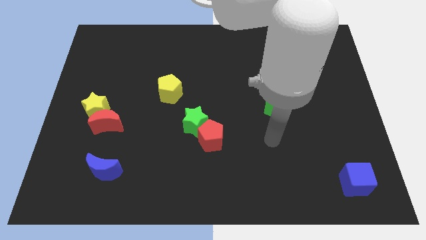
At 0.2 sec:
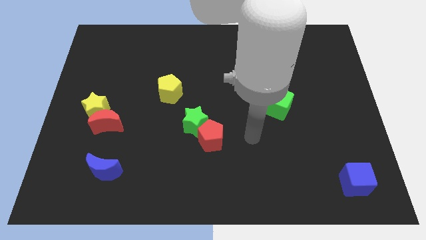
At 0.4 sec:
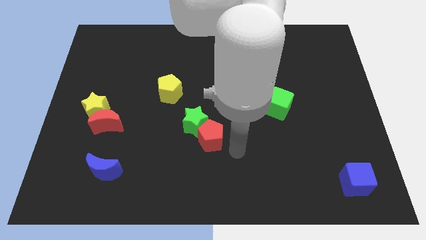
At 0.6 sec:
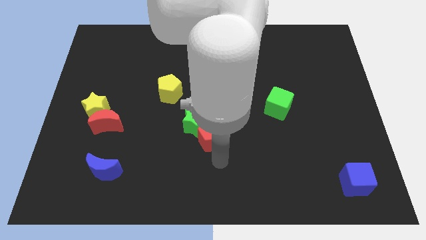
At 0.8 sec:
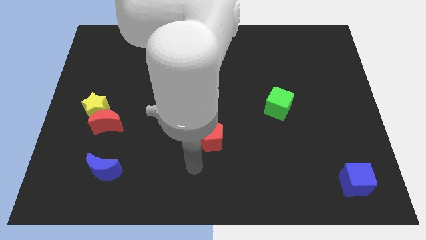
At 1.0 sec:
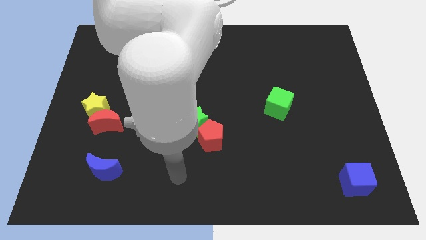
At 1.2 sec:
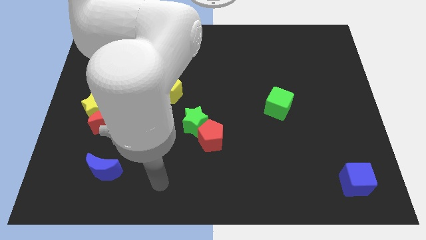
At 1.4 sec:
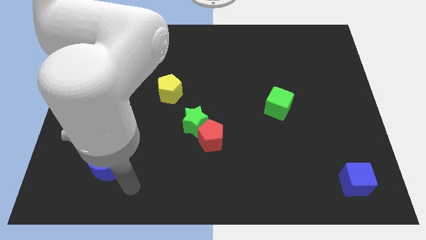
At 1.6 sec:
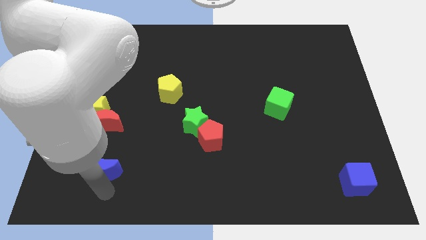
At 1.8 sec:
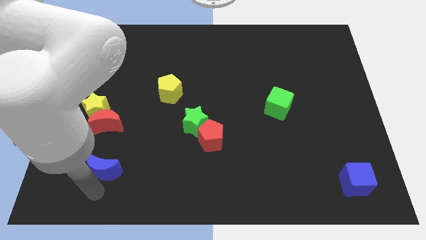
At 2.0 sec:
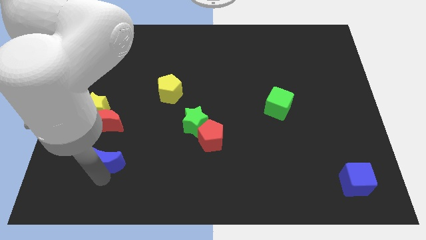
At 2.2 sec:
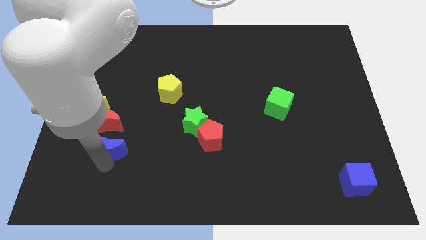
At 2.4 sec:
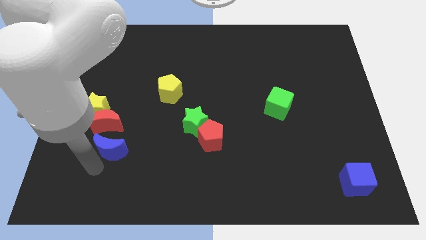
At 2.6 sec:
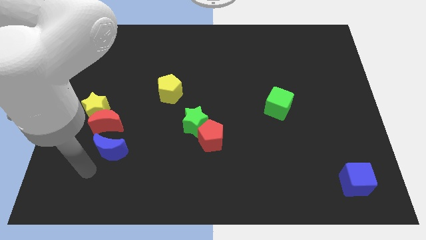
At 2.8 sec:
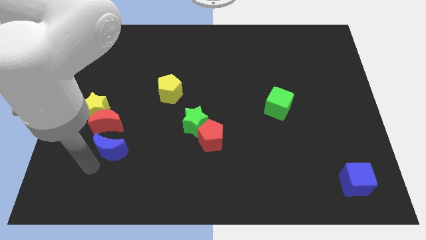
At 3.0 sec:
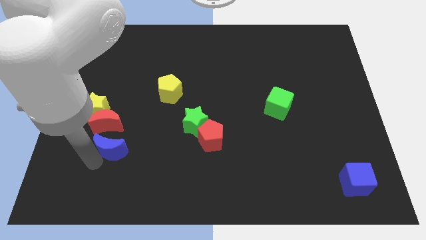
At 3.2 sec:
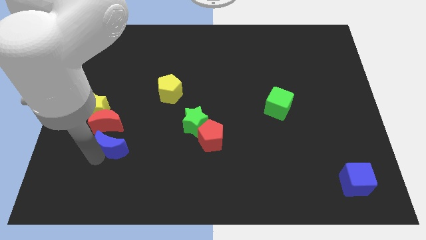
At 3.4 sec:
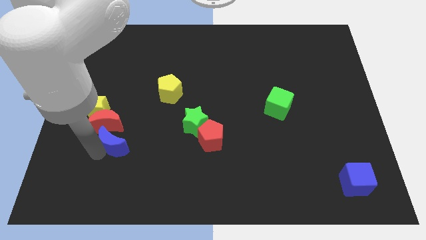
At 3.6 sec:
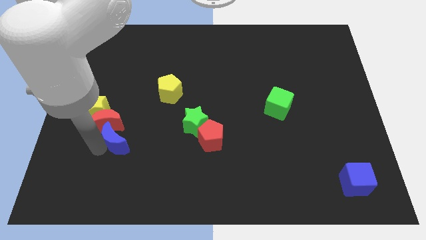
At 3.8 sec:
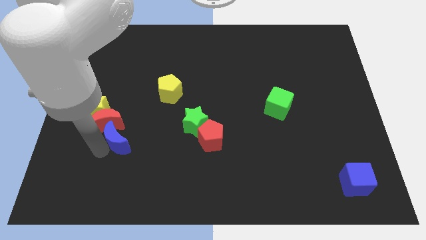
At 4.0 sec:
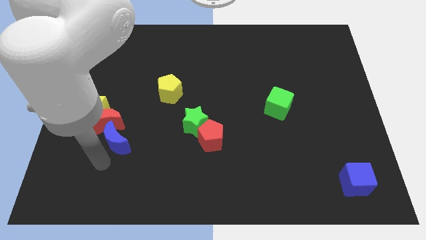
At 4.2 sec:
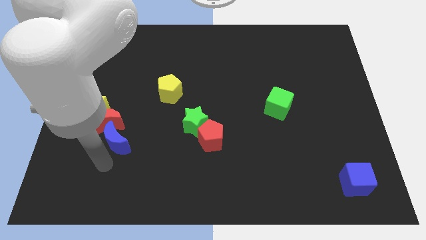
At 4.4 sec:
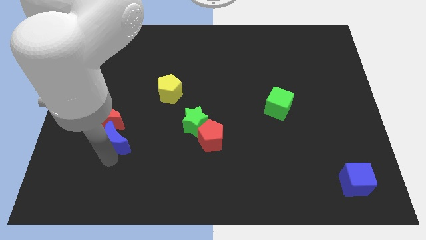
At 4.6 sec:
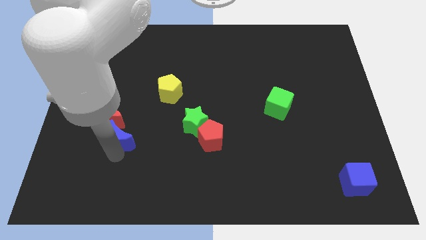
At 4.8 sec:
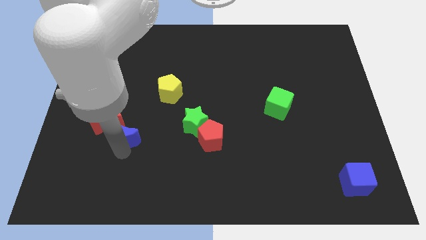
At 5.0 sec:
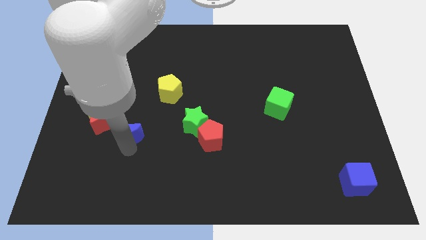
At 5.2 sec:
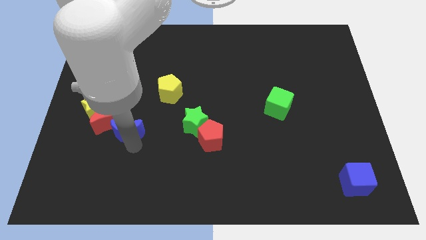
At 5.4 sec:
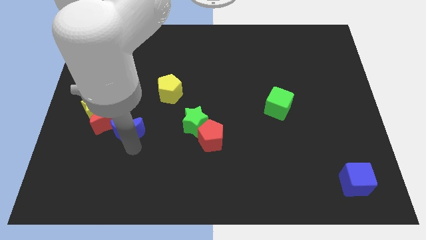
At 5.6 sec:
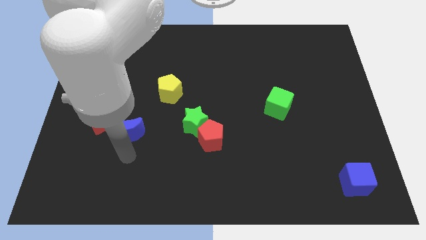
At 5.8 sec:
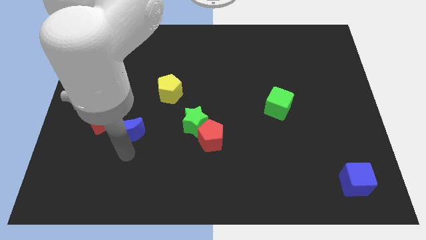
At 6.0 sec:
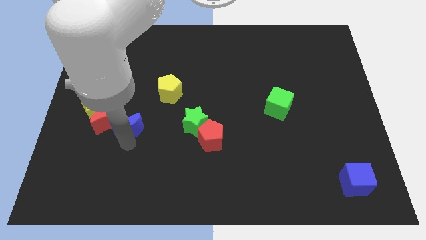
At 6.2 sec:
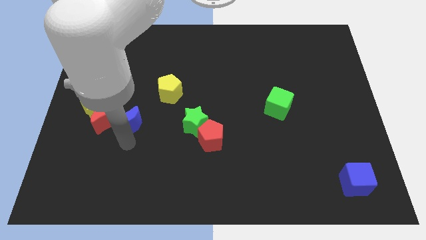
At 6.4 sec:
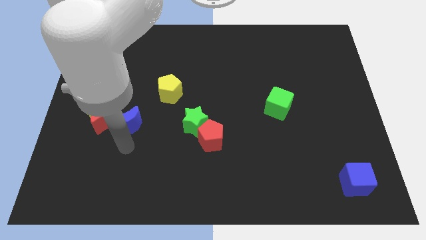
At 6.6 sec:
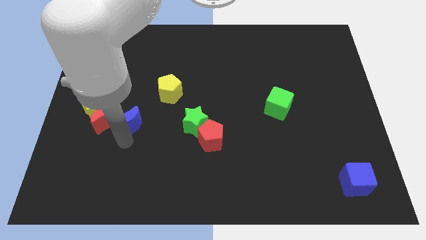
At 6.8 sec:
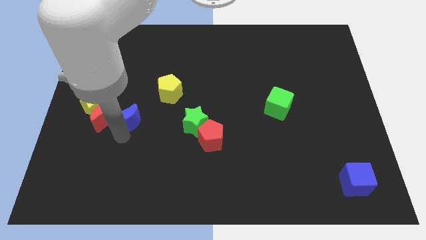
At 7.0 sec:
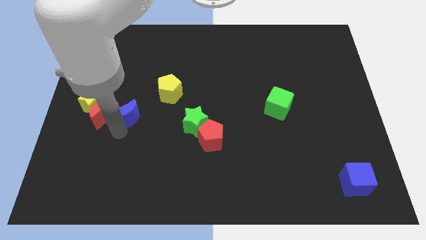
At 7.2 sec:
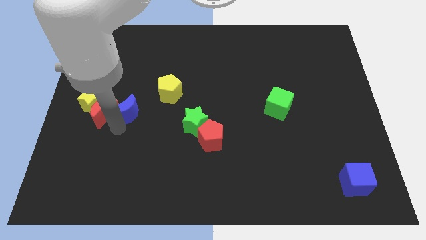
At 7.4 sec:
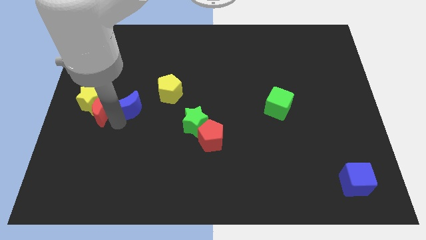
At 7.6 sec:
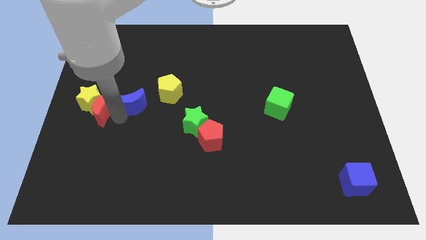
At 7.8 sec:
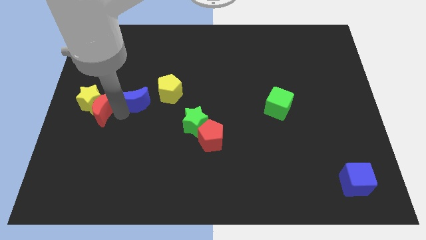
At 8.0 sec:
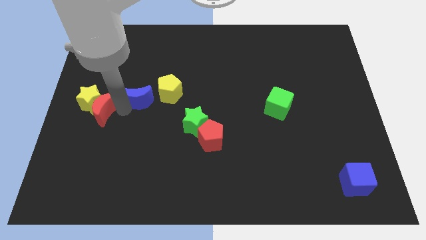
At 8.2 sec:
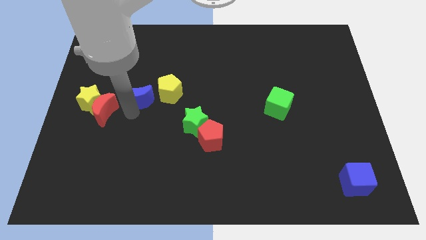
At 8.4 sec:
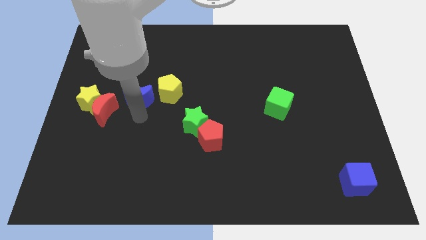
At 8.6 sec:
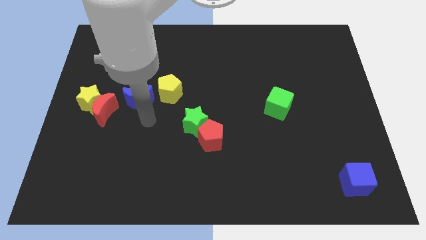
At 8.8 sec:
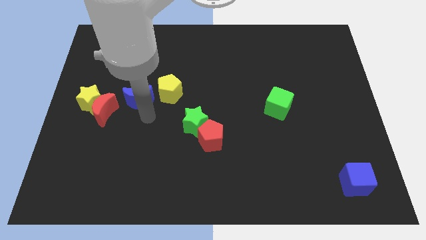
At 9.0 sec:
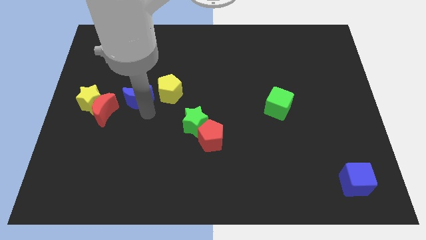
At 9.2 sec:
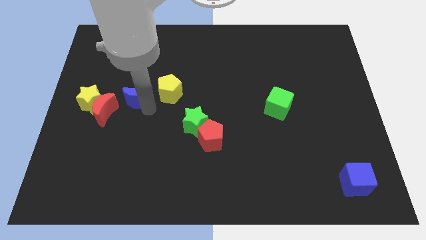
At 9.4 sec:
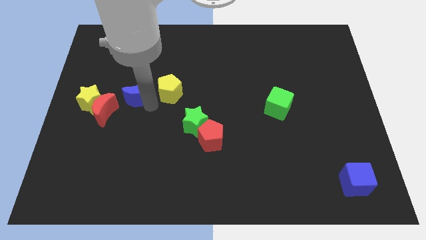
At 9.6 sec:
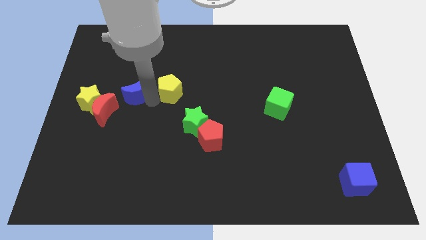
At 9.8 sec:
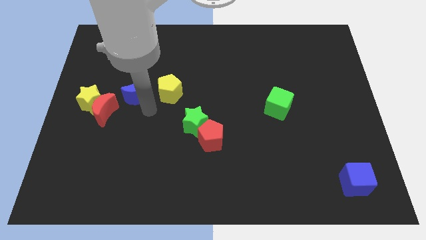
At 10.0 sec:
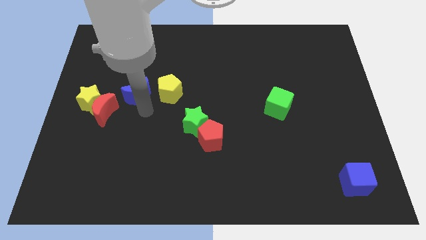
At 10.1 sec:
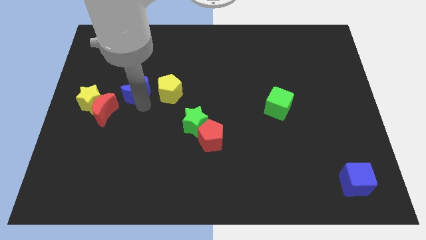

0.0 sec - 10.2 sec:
slide the blue moon up

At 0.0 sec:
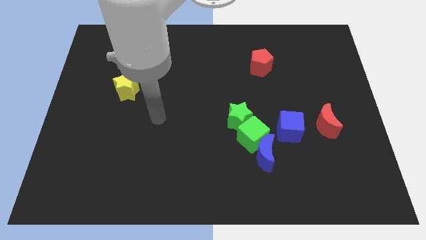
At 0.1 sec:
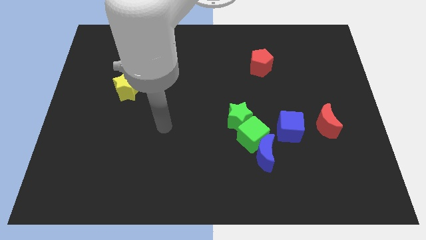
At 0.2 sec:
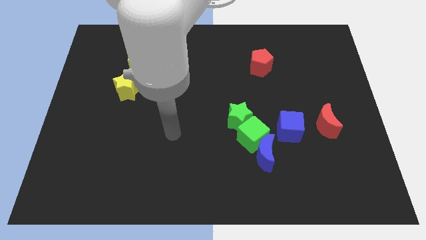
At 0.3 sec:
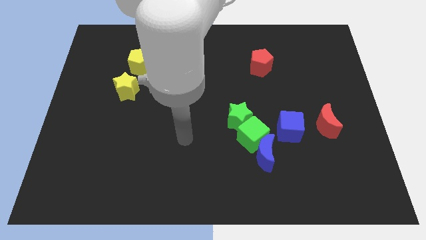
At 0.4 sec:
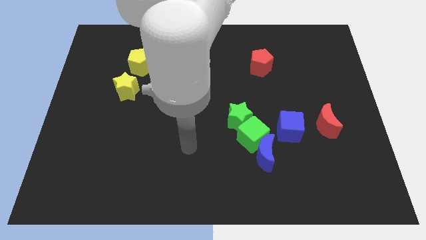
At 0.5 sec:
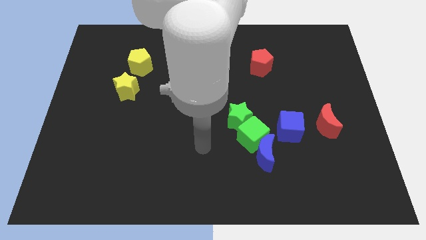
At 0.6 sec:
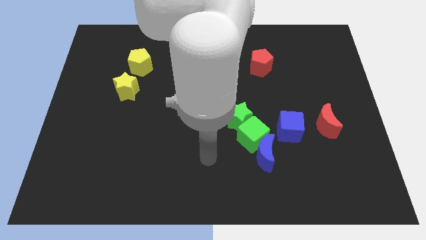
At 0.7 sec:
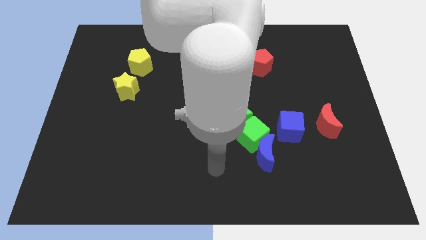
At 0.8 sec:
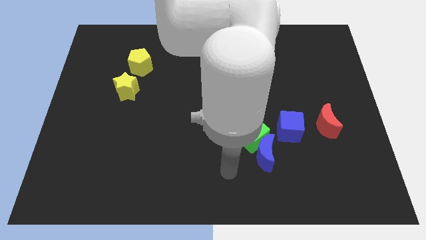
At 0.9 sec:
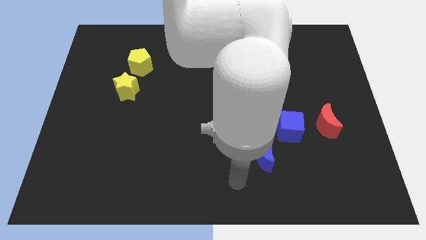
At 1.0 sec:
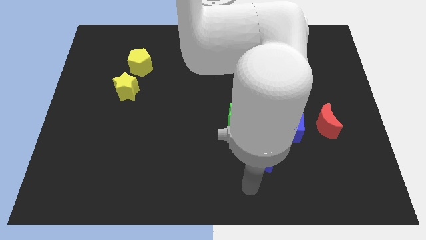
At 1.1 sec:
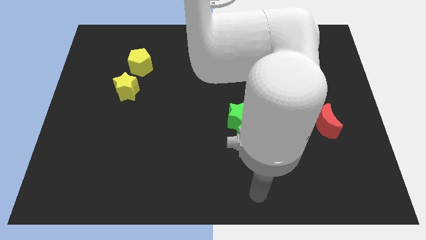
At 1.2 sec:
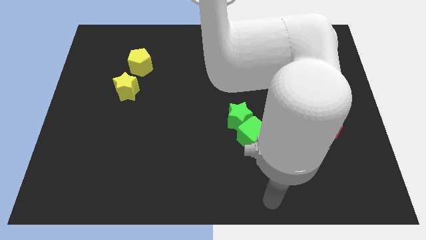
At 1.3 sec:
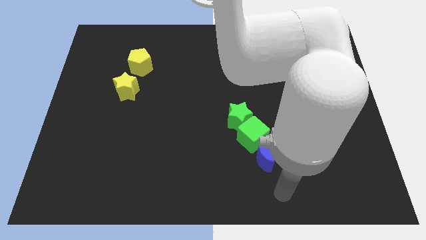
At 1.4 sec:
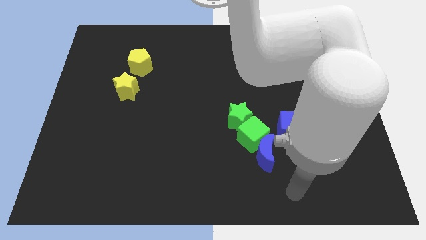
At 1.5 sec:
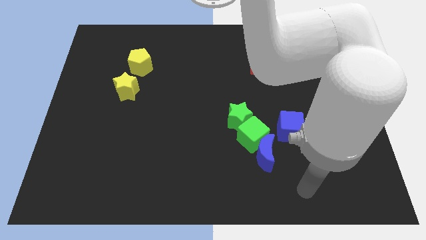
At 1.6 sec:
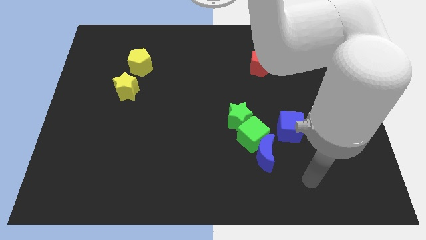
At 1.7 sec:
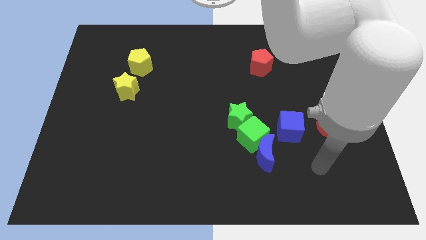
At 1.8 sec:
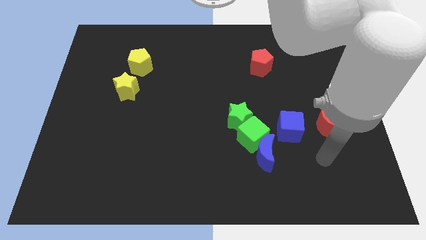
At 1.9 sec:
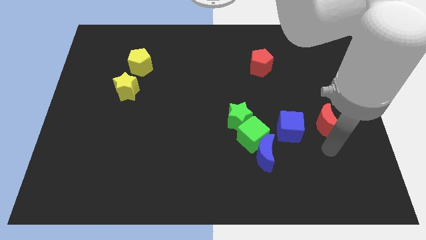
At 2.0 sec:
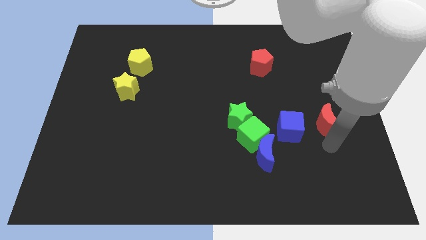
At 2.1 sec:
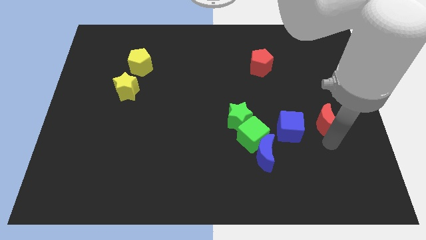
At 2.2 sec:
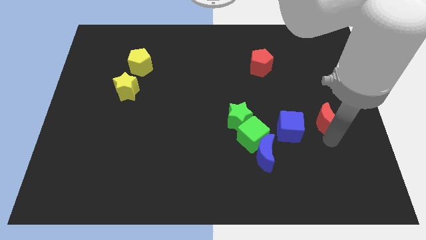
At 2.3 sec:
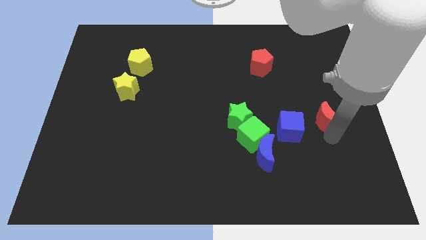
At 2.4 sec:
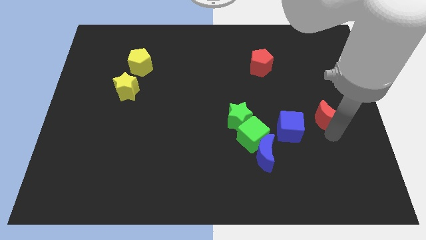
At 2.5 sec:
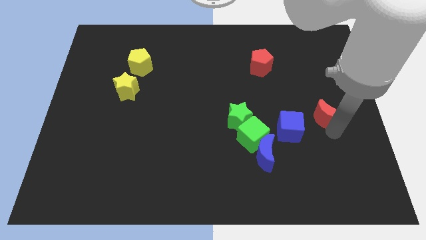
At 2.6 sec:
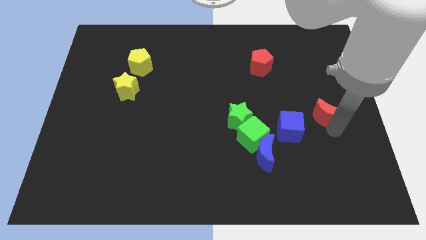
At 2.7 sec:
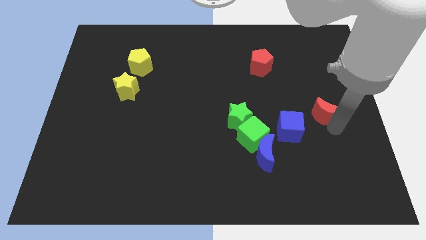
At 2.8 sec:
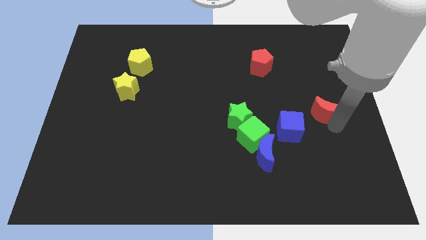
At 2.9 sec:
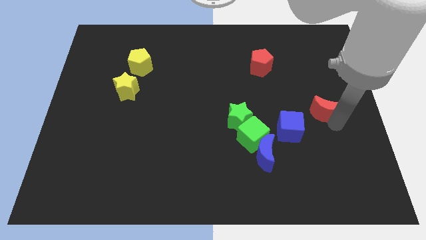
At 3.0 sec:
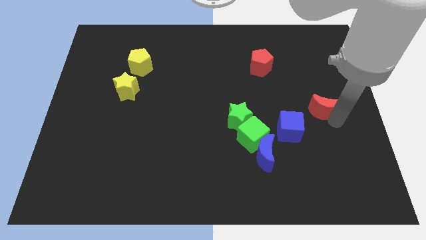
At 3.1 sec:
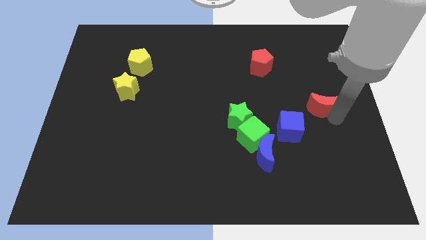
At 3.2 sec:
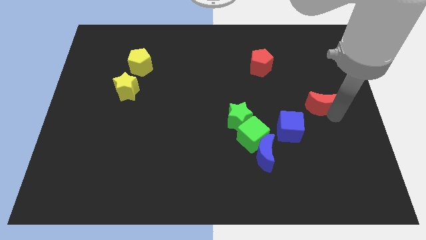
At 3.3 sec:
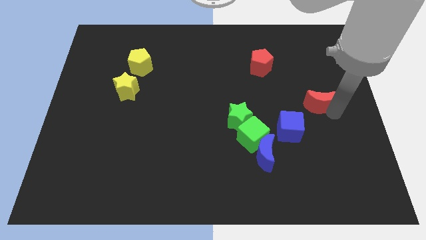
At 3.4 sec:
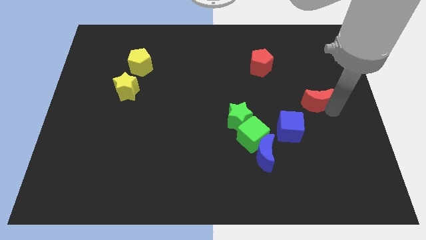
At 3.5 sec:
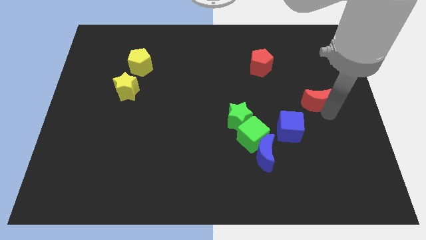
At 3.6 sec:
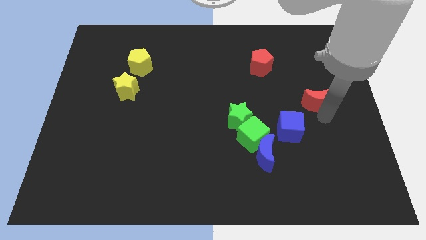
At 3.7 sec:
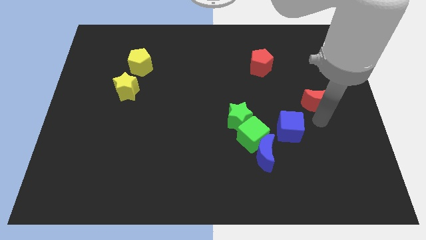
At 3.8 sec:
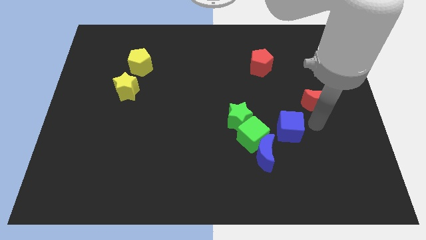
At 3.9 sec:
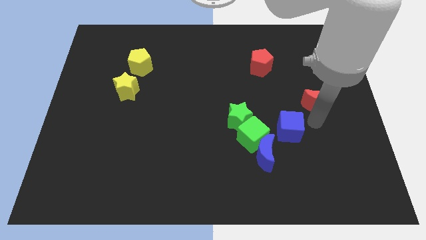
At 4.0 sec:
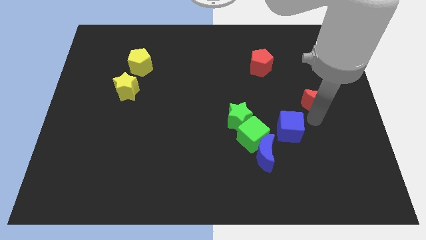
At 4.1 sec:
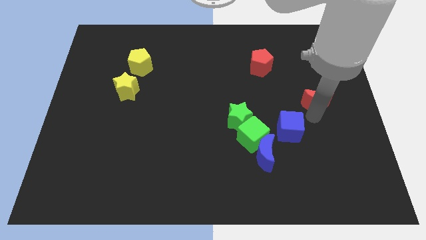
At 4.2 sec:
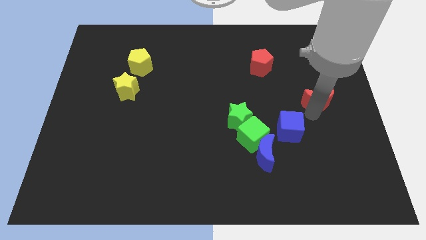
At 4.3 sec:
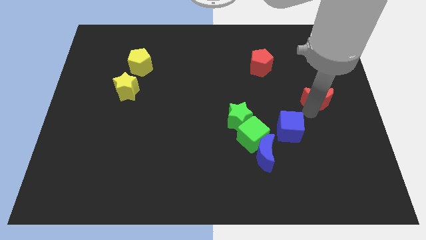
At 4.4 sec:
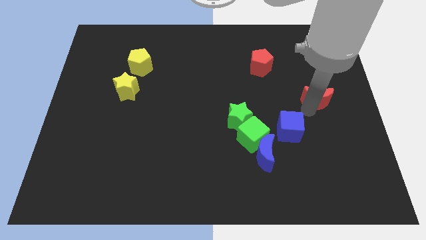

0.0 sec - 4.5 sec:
slightly push the red moon up
